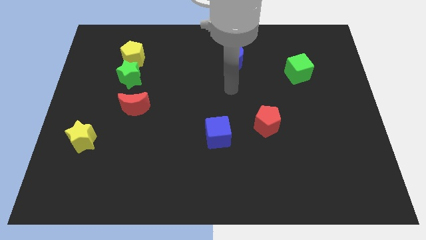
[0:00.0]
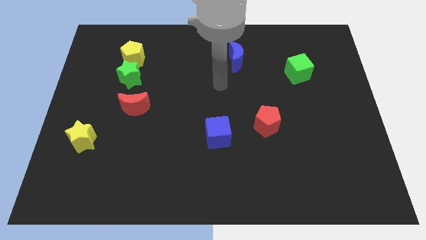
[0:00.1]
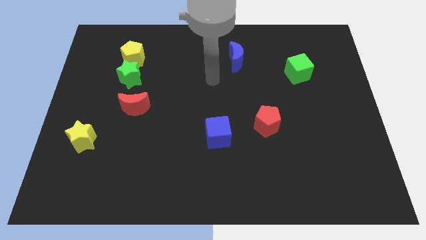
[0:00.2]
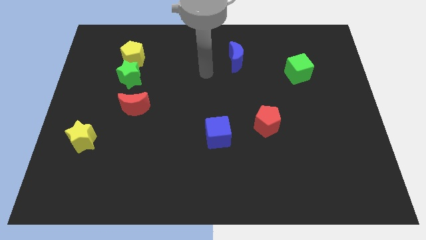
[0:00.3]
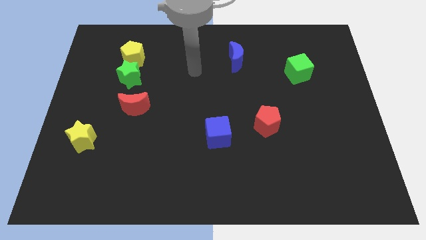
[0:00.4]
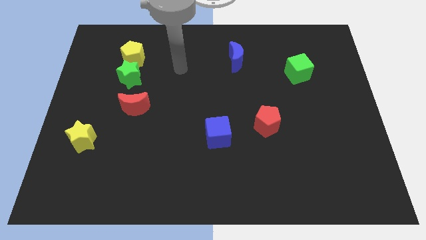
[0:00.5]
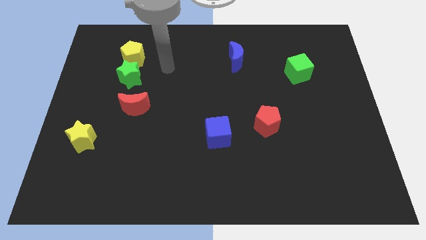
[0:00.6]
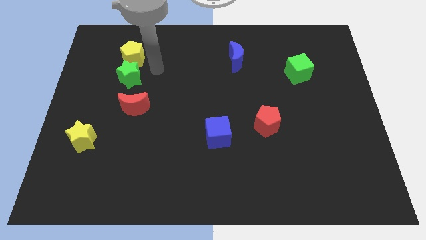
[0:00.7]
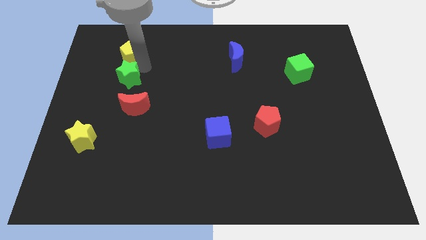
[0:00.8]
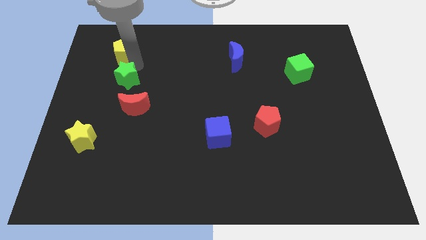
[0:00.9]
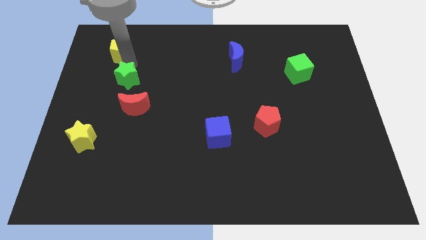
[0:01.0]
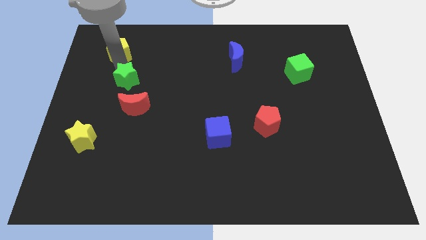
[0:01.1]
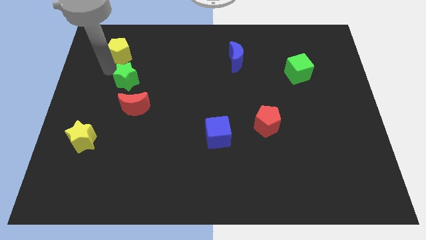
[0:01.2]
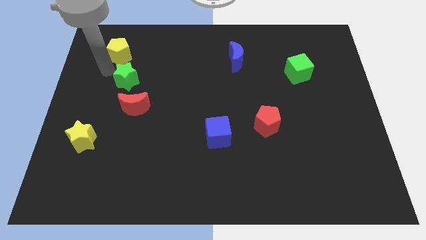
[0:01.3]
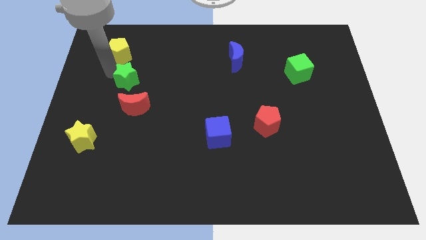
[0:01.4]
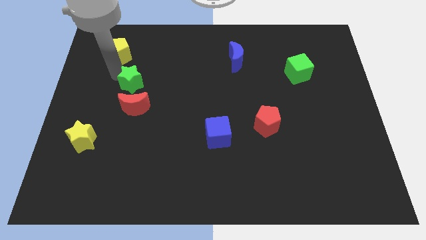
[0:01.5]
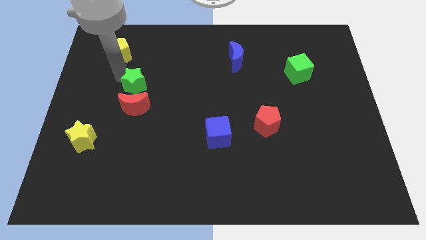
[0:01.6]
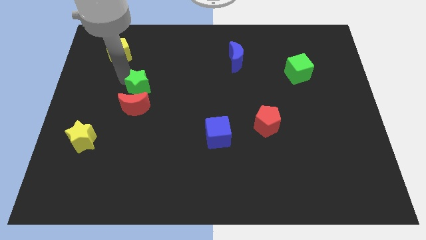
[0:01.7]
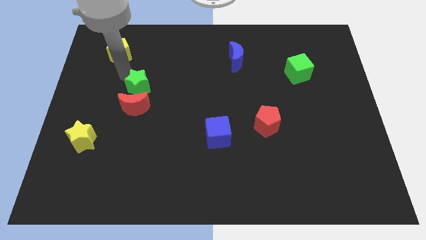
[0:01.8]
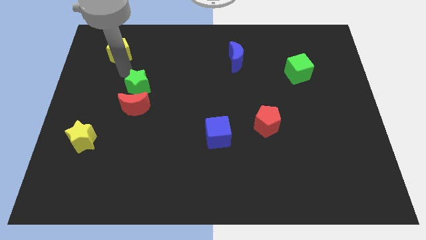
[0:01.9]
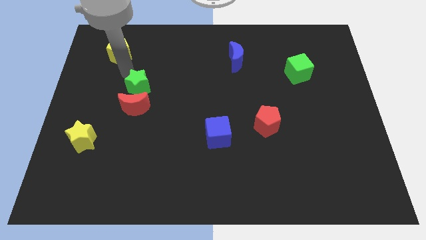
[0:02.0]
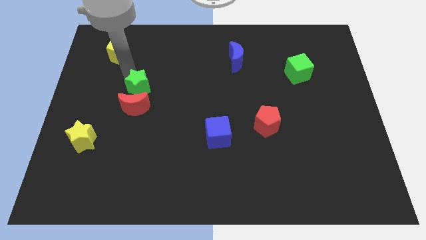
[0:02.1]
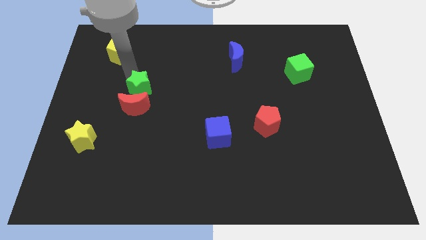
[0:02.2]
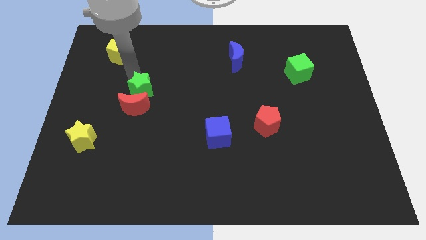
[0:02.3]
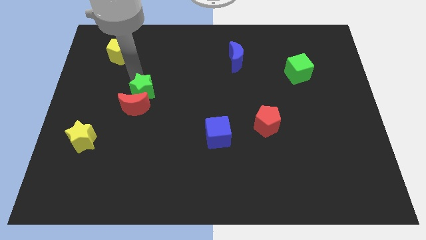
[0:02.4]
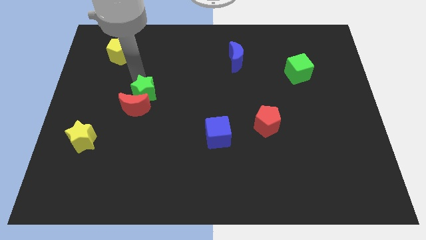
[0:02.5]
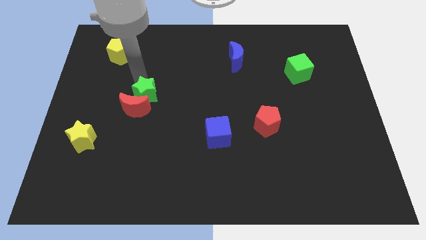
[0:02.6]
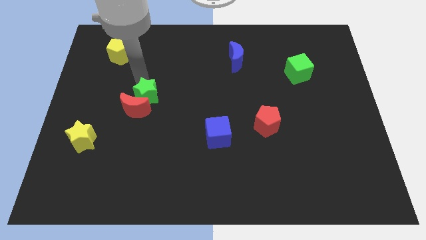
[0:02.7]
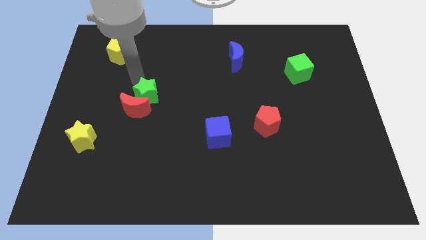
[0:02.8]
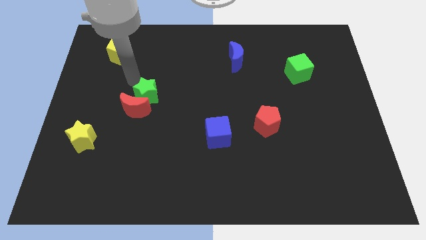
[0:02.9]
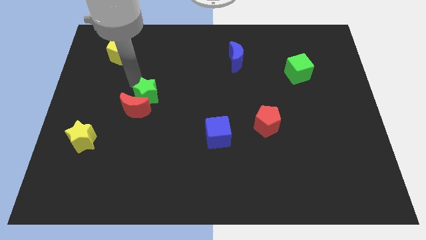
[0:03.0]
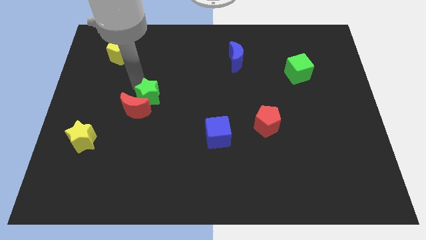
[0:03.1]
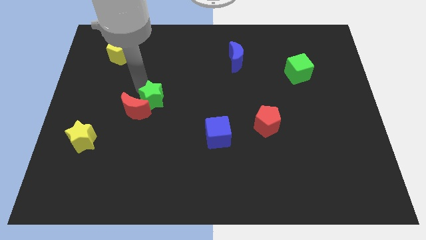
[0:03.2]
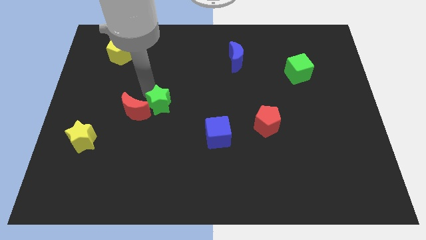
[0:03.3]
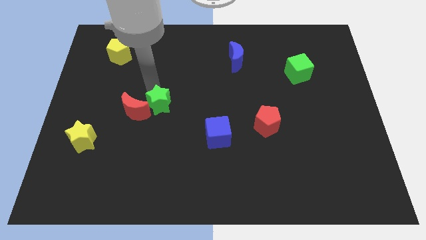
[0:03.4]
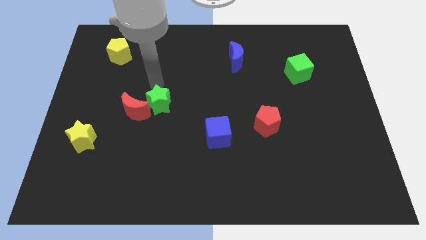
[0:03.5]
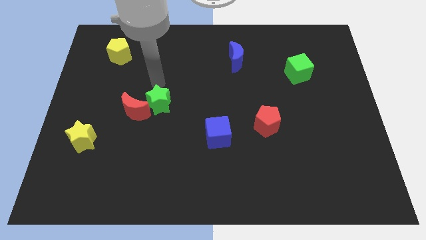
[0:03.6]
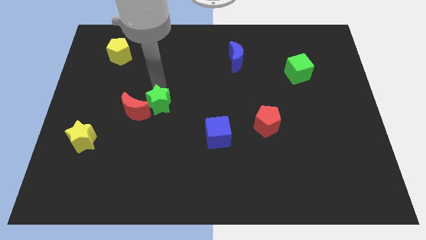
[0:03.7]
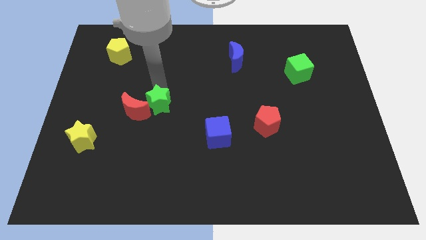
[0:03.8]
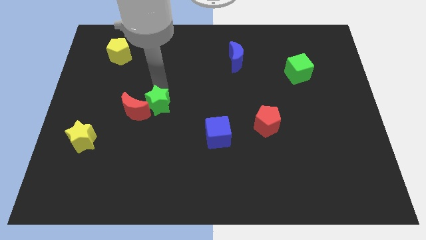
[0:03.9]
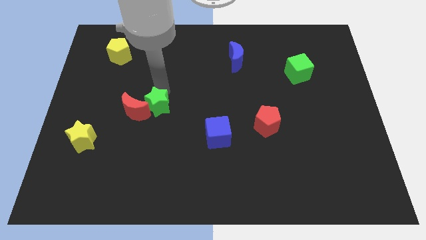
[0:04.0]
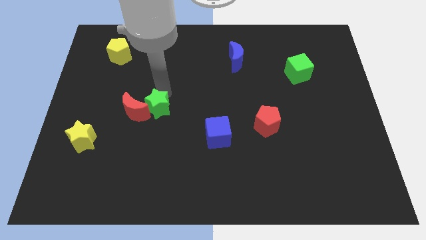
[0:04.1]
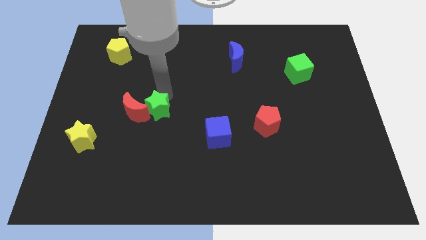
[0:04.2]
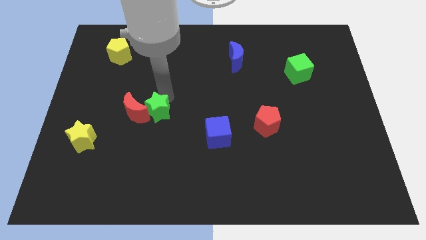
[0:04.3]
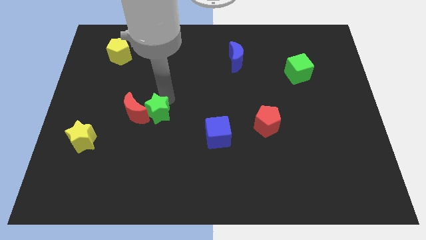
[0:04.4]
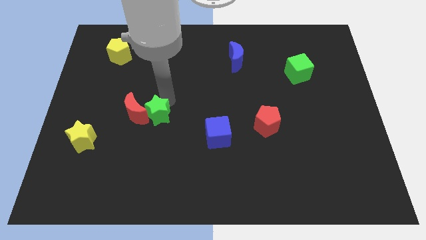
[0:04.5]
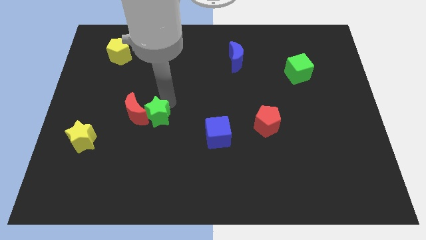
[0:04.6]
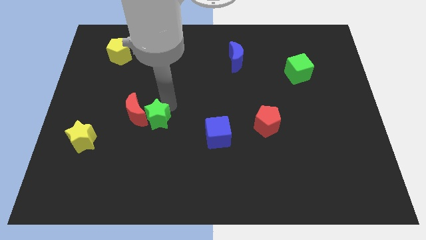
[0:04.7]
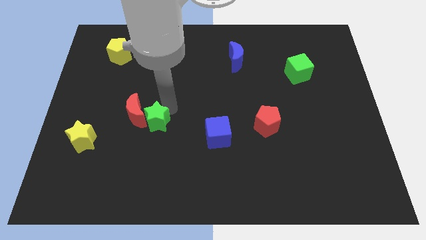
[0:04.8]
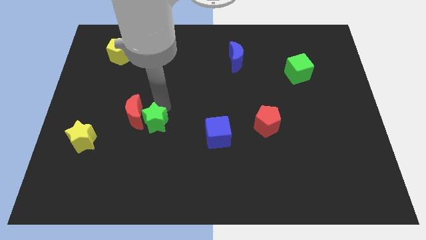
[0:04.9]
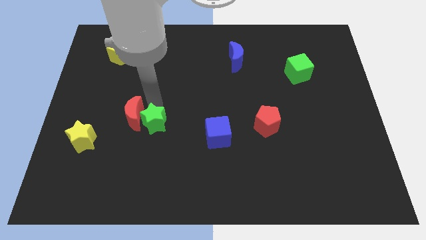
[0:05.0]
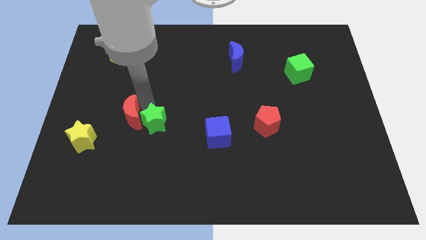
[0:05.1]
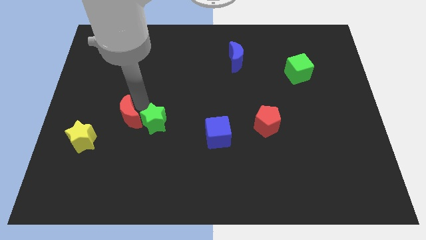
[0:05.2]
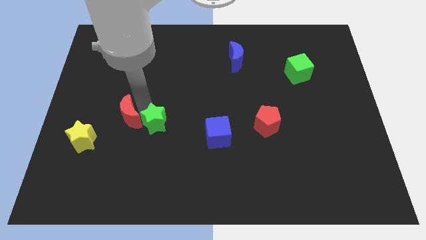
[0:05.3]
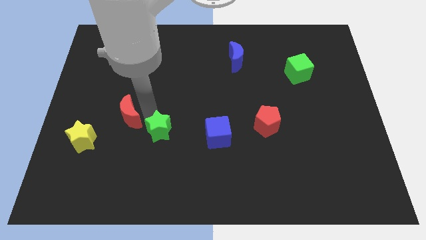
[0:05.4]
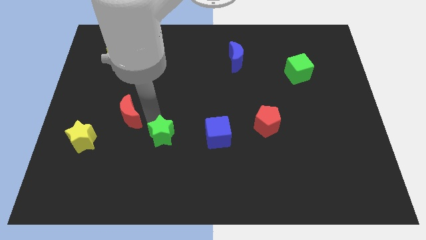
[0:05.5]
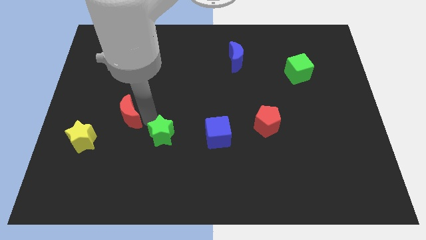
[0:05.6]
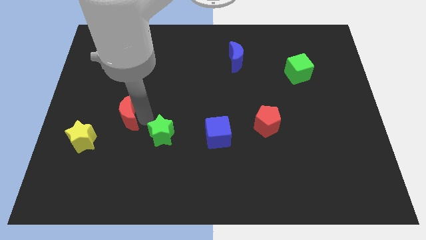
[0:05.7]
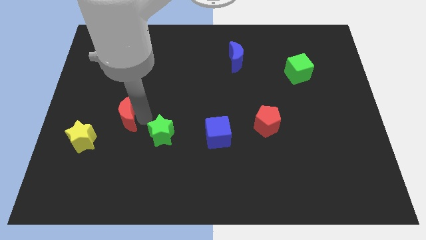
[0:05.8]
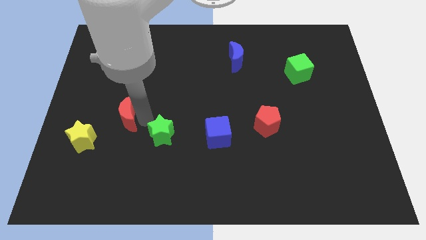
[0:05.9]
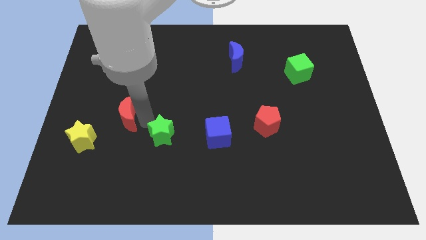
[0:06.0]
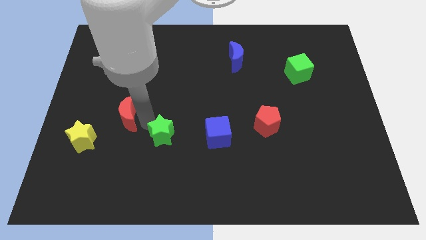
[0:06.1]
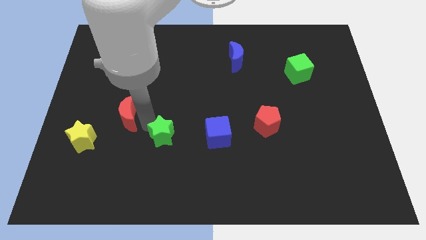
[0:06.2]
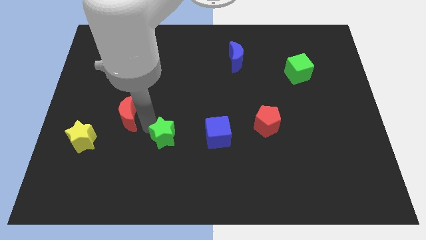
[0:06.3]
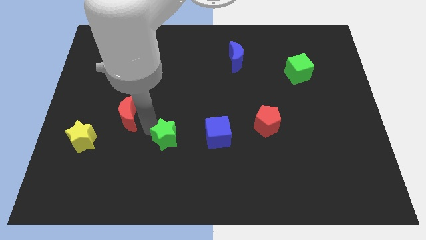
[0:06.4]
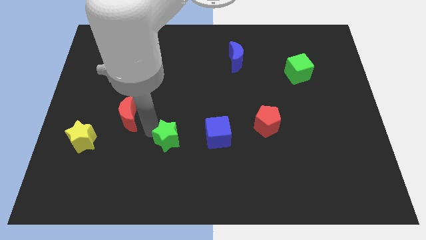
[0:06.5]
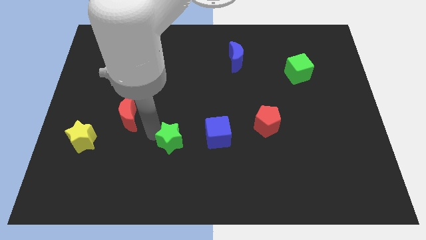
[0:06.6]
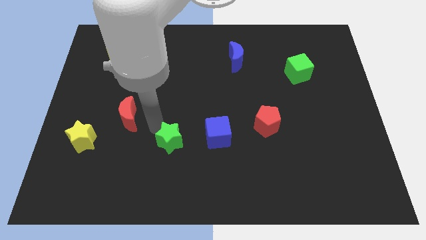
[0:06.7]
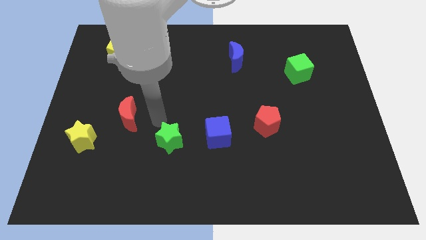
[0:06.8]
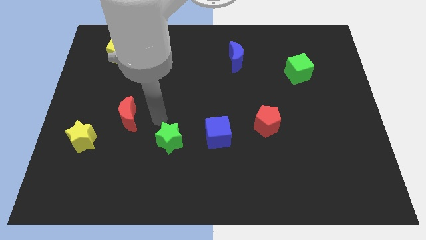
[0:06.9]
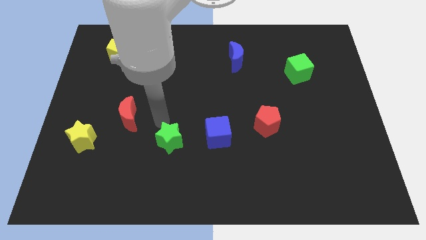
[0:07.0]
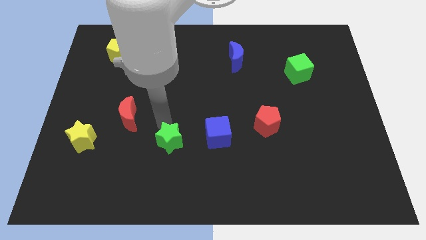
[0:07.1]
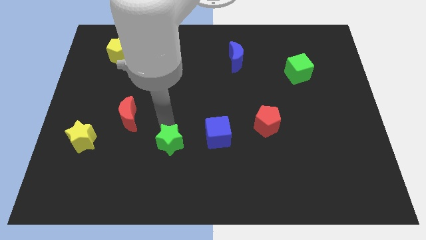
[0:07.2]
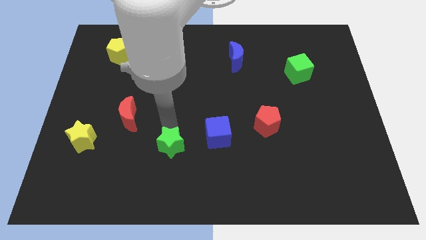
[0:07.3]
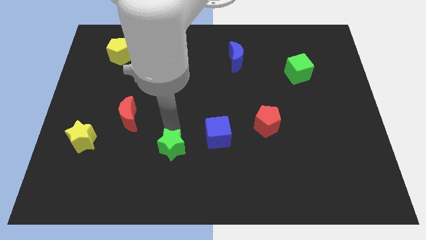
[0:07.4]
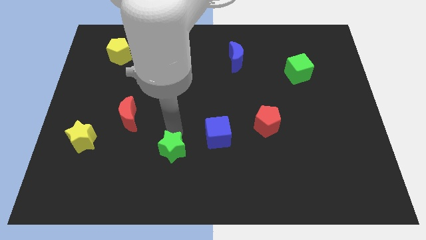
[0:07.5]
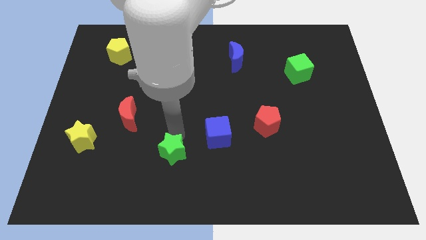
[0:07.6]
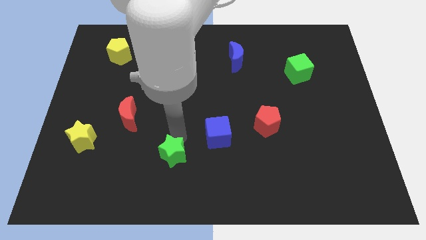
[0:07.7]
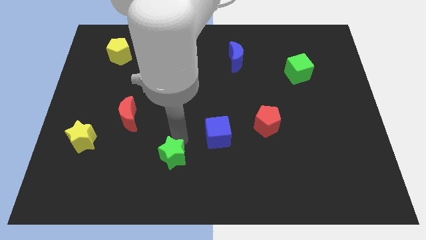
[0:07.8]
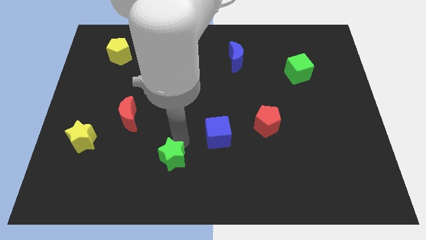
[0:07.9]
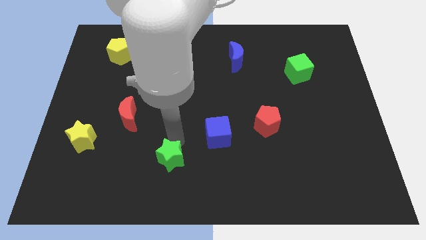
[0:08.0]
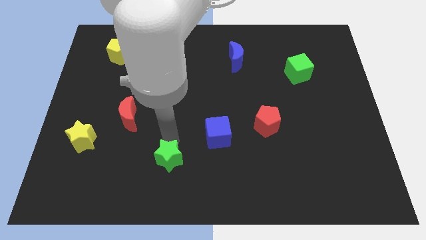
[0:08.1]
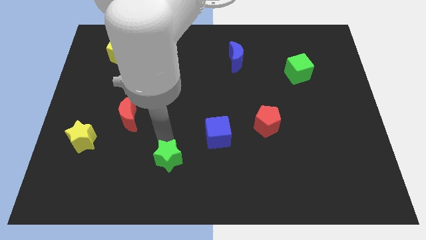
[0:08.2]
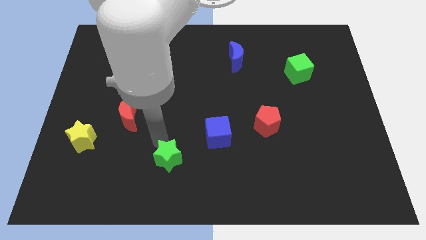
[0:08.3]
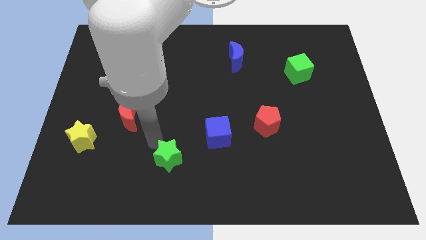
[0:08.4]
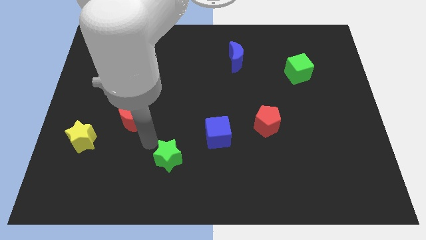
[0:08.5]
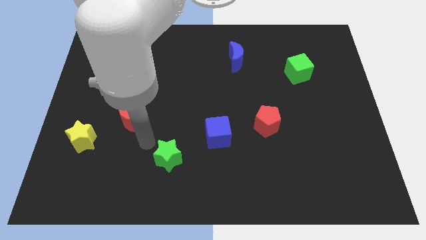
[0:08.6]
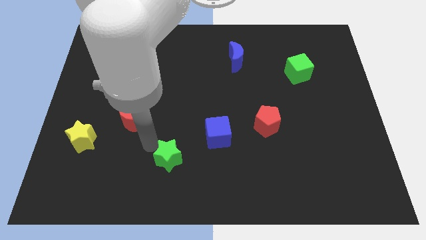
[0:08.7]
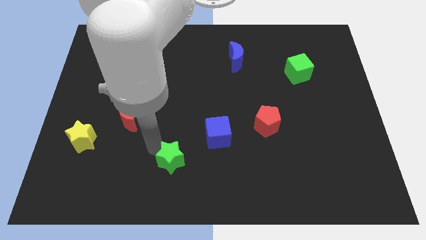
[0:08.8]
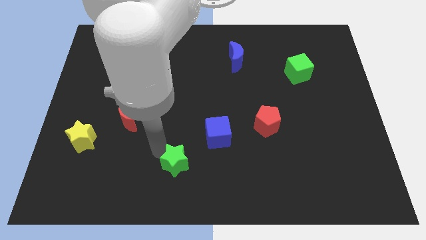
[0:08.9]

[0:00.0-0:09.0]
put the green star to the bottom
